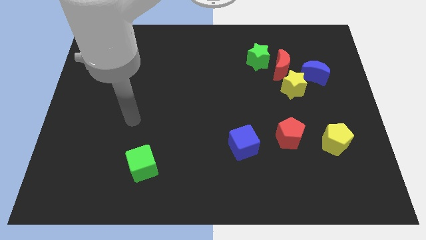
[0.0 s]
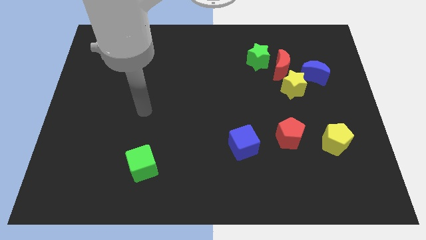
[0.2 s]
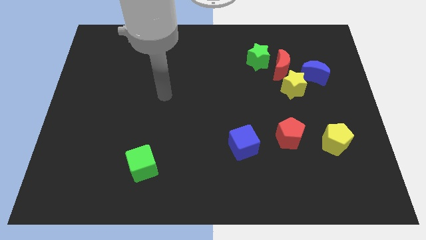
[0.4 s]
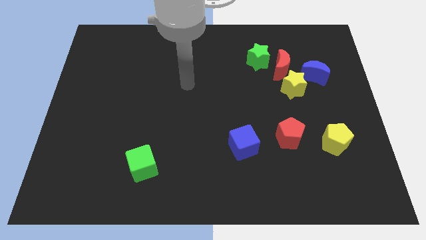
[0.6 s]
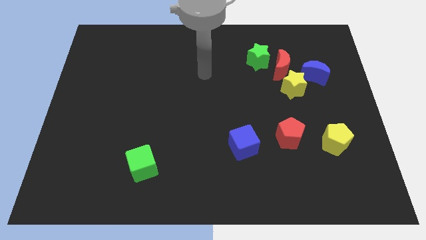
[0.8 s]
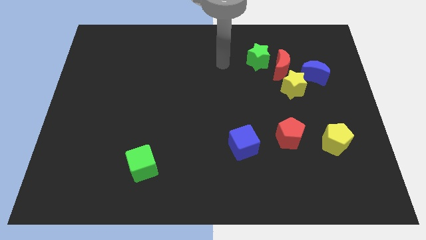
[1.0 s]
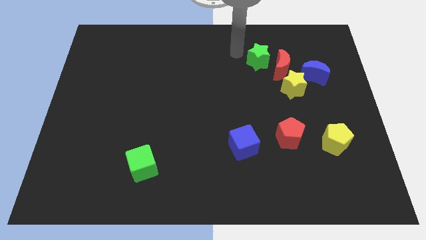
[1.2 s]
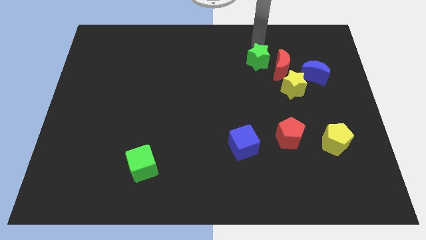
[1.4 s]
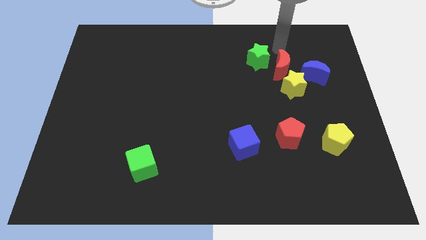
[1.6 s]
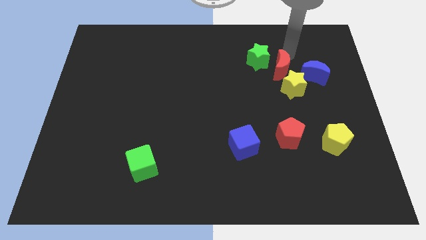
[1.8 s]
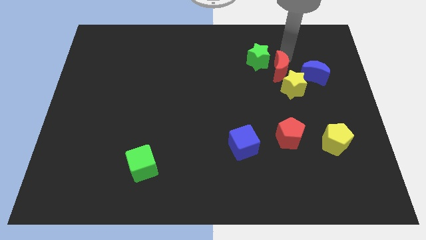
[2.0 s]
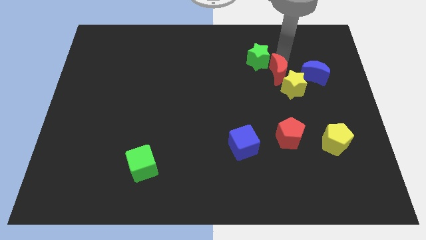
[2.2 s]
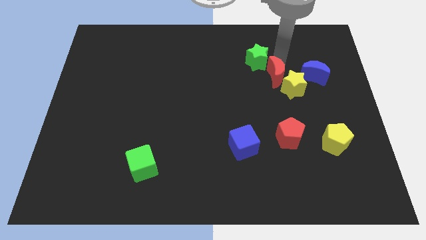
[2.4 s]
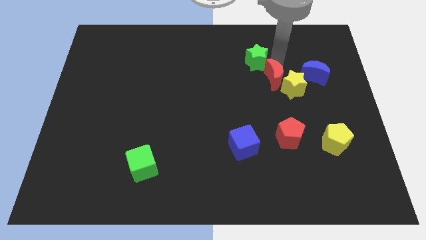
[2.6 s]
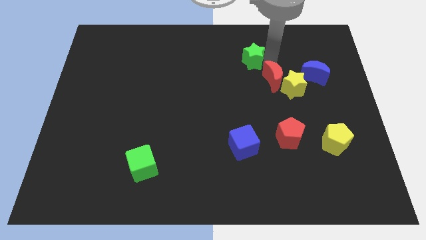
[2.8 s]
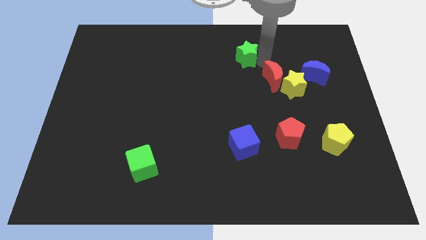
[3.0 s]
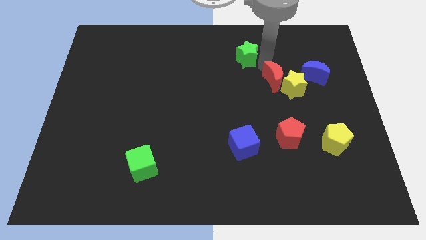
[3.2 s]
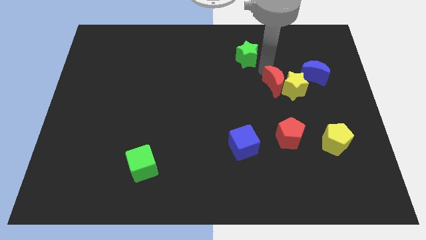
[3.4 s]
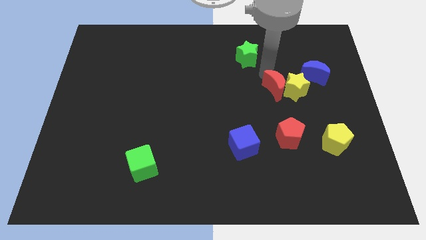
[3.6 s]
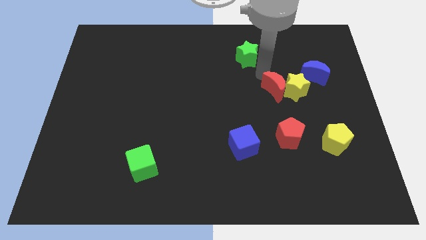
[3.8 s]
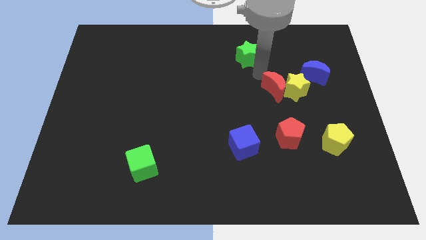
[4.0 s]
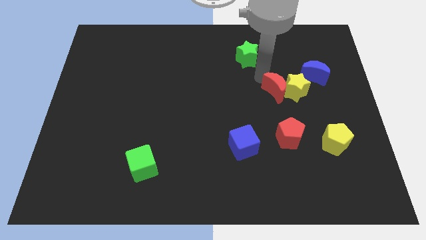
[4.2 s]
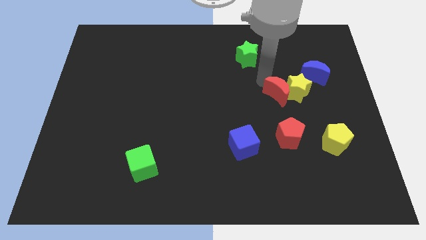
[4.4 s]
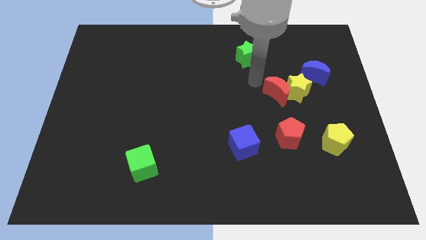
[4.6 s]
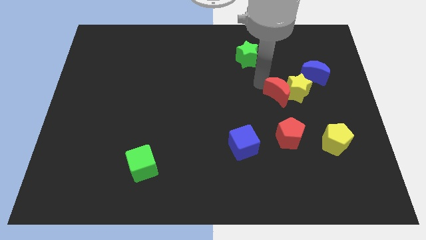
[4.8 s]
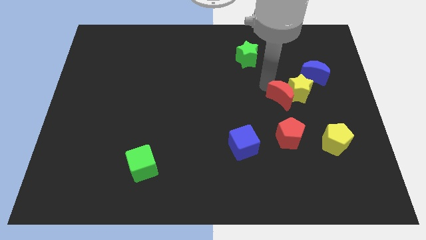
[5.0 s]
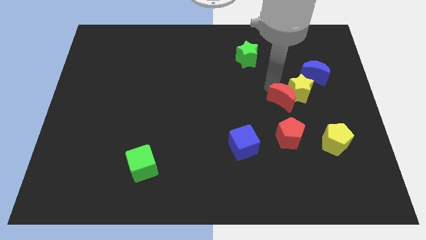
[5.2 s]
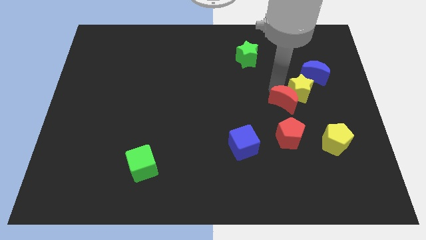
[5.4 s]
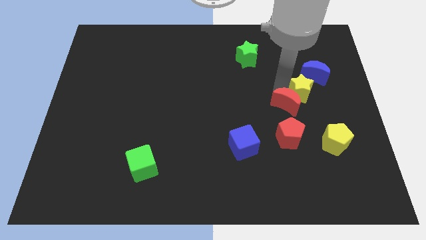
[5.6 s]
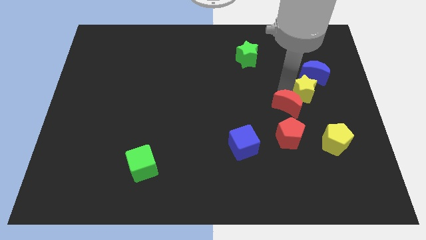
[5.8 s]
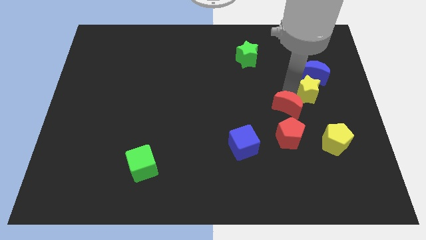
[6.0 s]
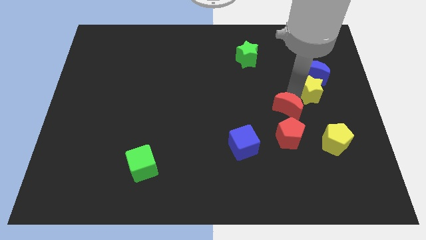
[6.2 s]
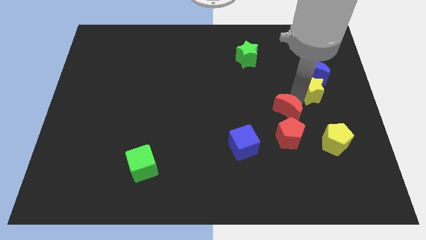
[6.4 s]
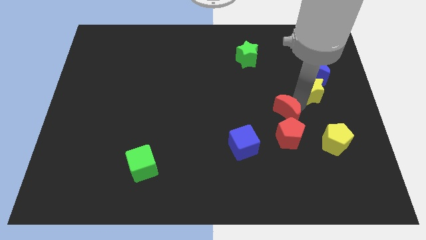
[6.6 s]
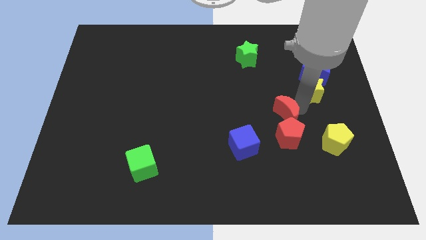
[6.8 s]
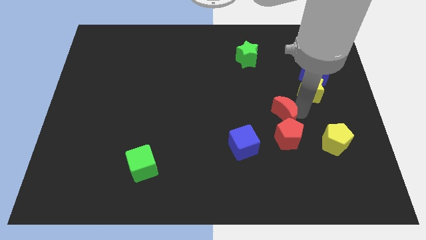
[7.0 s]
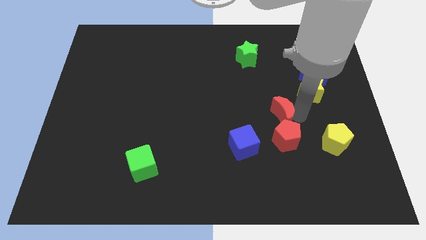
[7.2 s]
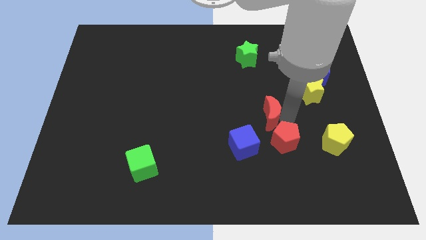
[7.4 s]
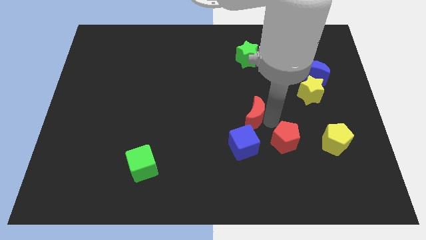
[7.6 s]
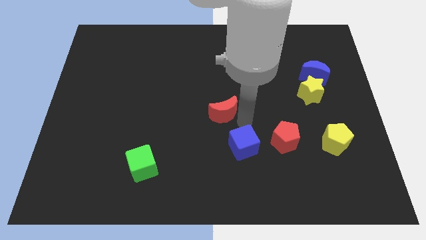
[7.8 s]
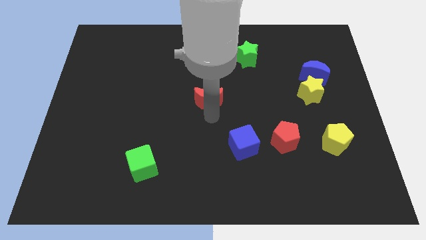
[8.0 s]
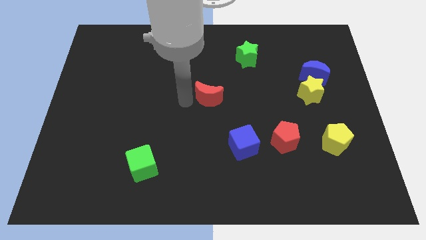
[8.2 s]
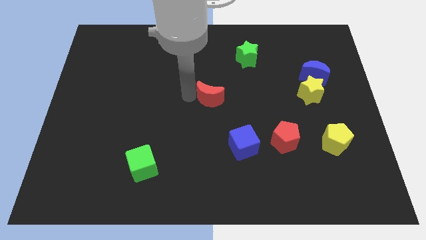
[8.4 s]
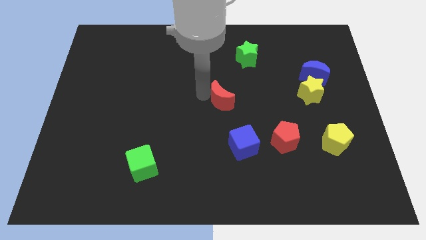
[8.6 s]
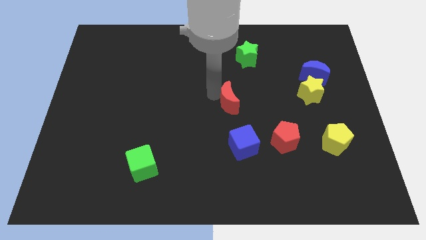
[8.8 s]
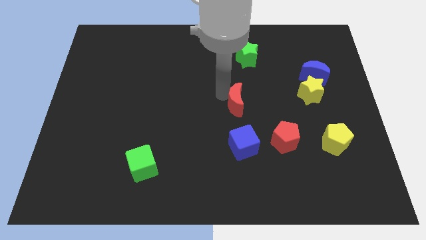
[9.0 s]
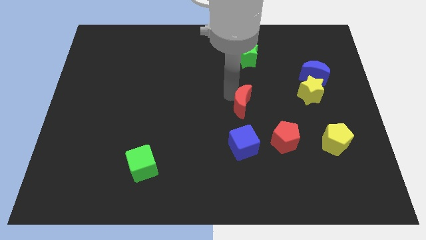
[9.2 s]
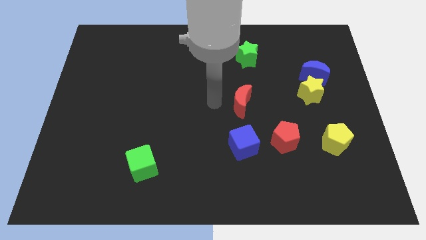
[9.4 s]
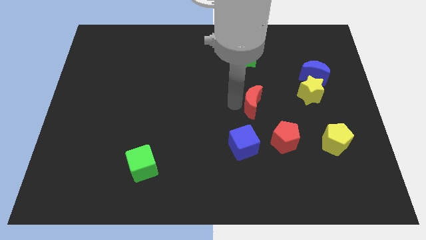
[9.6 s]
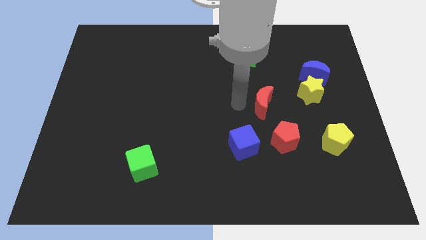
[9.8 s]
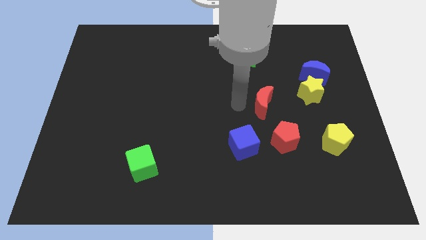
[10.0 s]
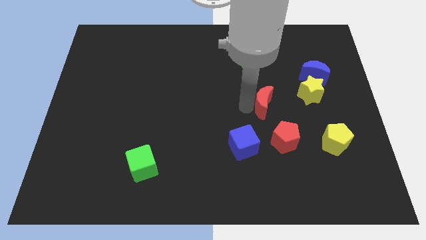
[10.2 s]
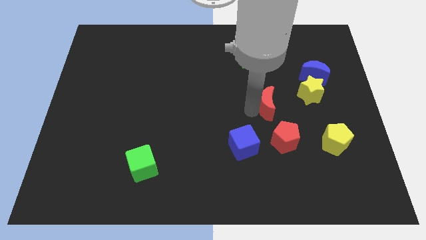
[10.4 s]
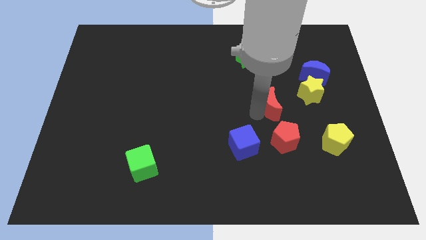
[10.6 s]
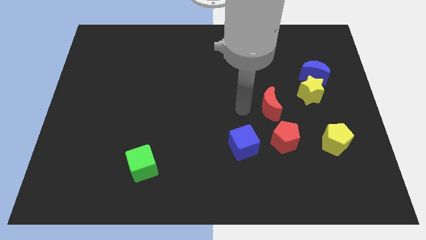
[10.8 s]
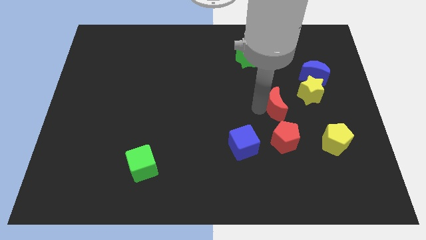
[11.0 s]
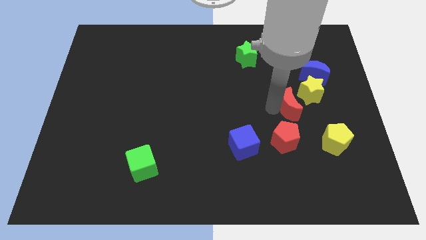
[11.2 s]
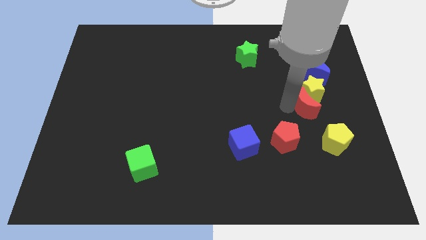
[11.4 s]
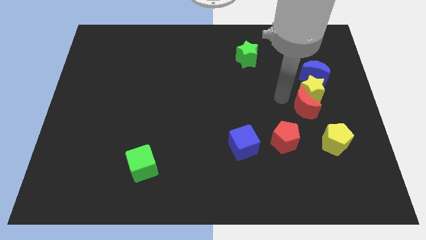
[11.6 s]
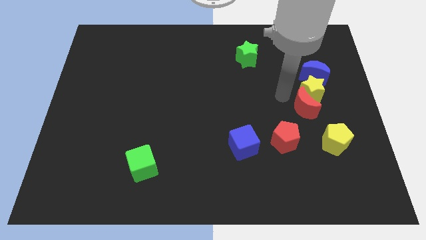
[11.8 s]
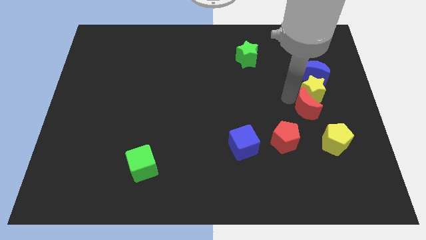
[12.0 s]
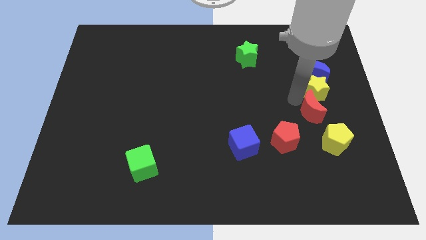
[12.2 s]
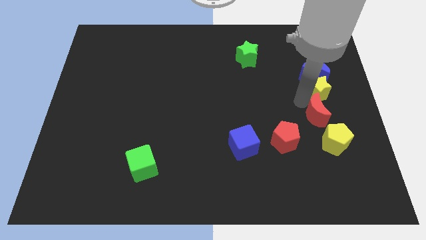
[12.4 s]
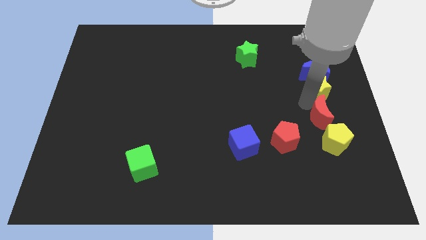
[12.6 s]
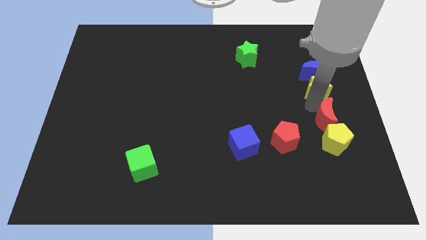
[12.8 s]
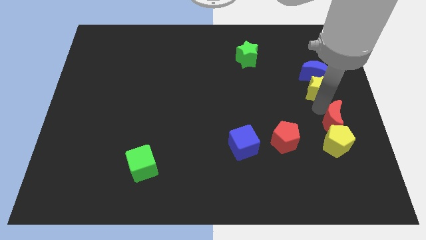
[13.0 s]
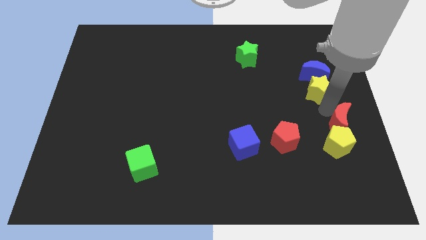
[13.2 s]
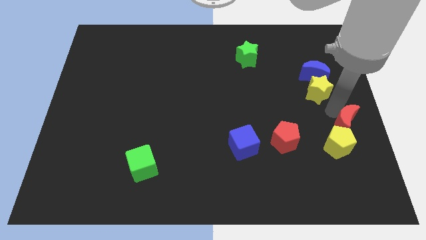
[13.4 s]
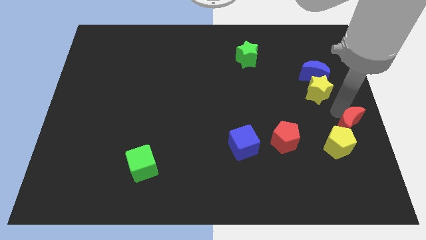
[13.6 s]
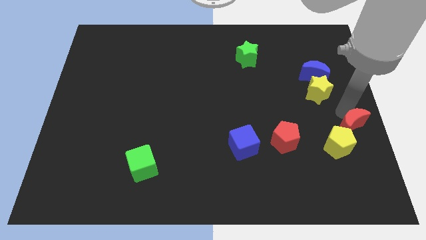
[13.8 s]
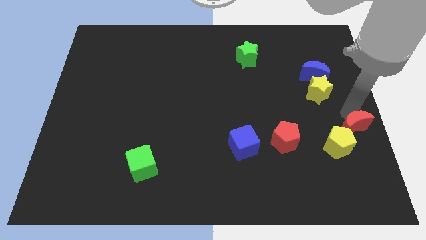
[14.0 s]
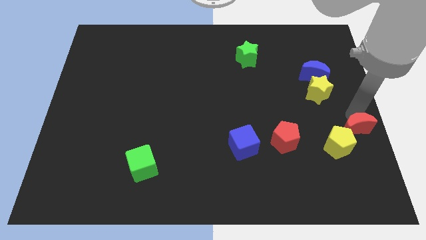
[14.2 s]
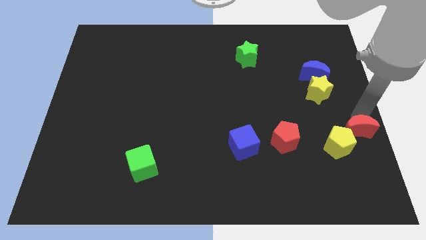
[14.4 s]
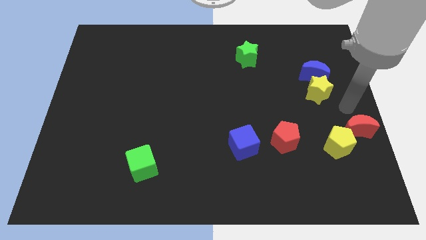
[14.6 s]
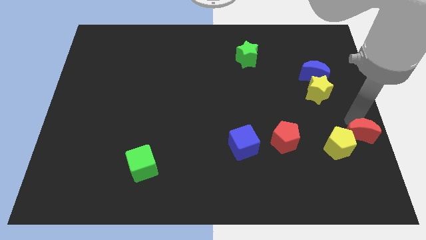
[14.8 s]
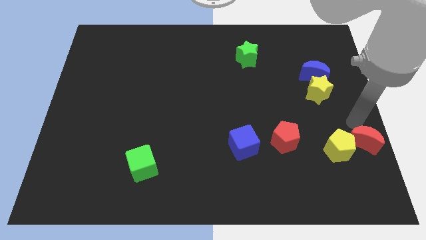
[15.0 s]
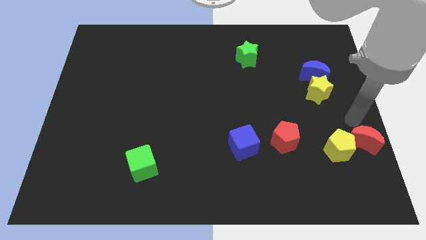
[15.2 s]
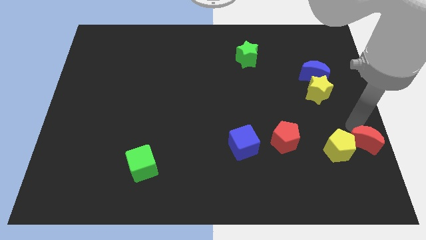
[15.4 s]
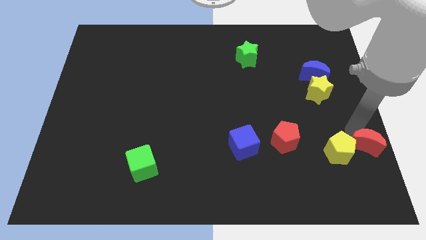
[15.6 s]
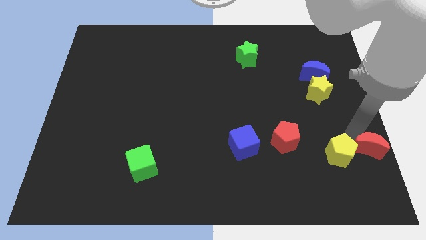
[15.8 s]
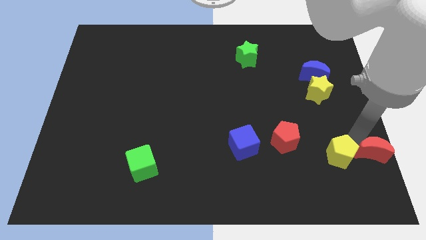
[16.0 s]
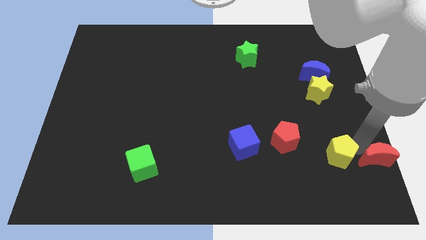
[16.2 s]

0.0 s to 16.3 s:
put the red moon to the lower right corner
